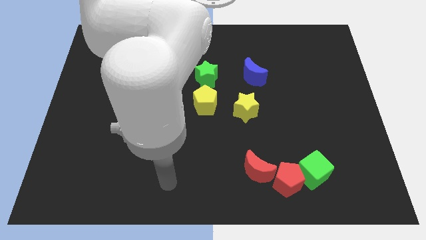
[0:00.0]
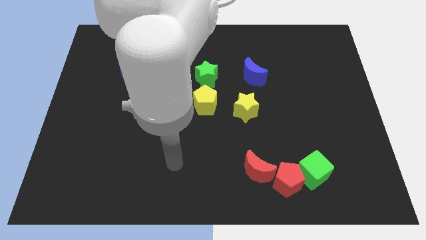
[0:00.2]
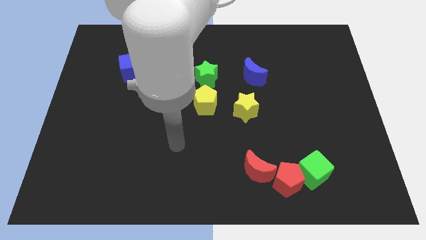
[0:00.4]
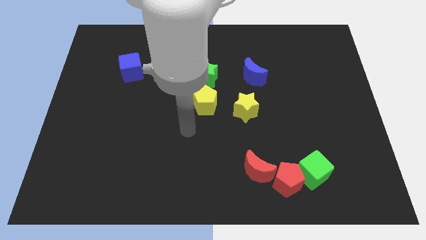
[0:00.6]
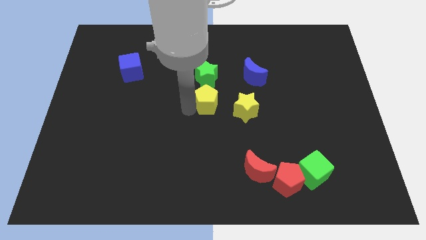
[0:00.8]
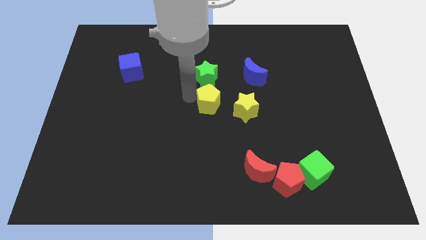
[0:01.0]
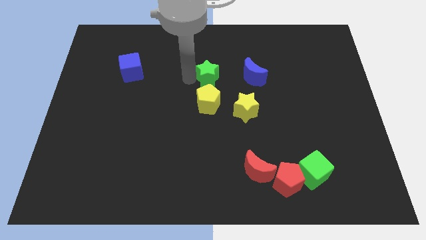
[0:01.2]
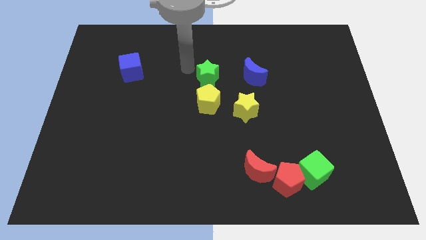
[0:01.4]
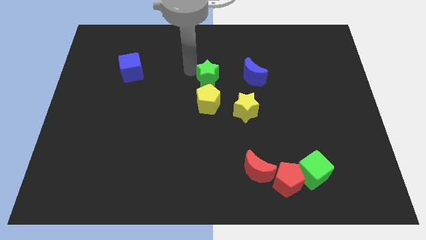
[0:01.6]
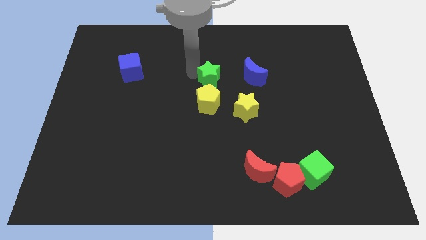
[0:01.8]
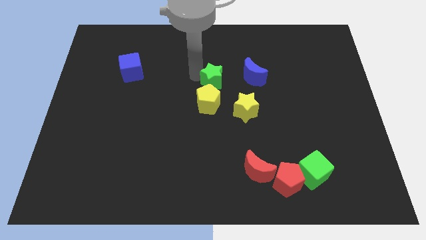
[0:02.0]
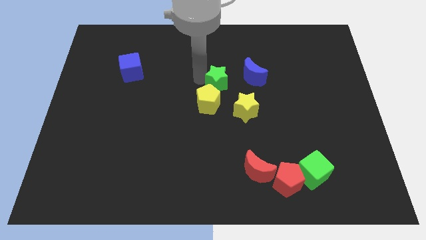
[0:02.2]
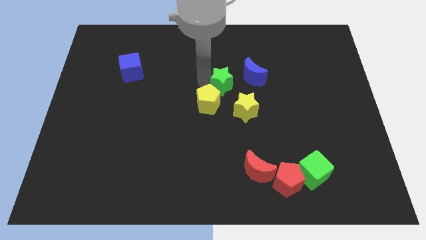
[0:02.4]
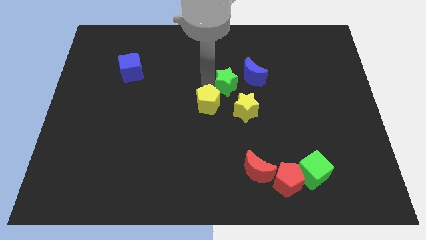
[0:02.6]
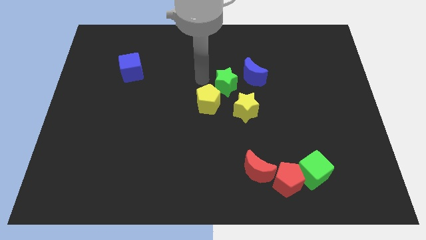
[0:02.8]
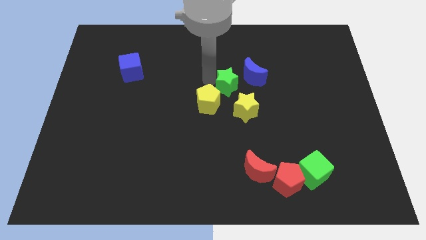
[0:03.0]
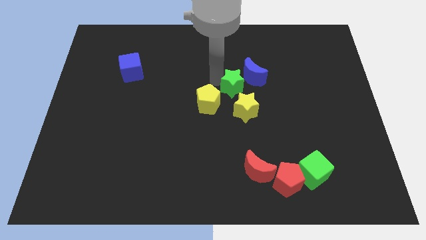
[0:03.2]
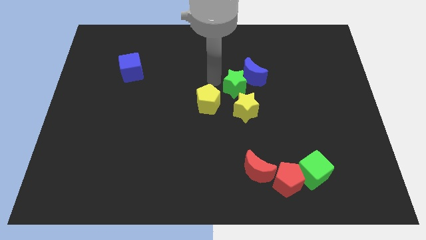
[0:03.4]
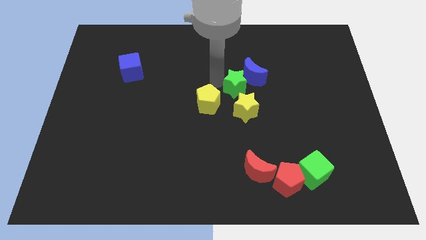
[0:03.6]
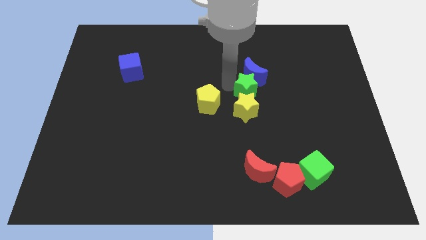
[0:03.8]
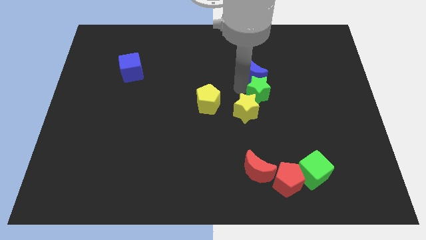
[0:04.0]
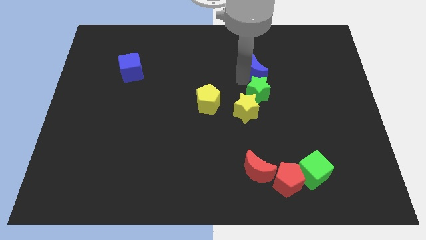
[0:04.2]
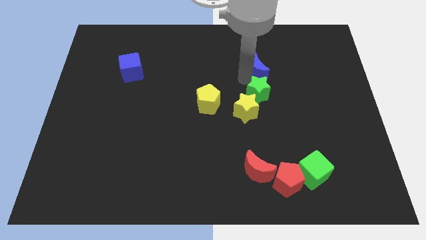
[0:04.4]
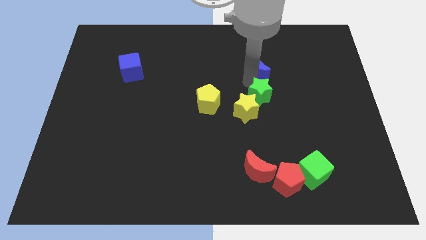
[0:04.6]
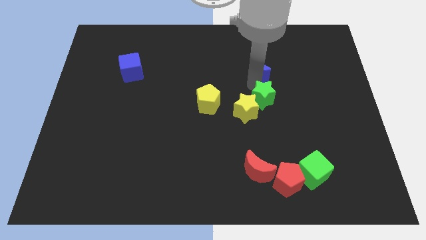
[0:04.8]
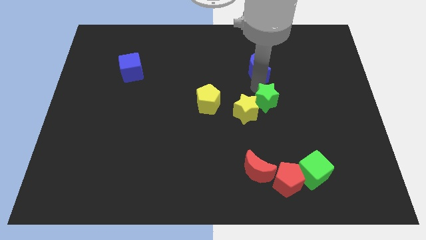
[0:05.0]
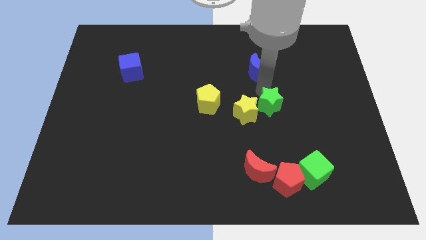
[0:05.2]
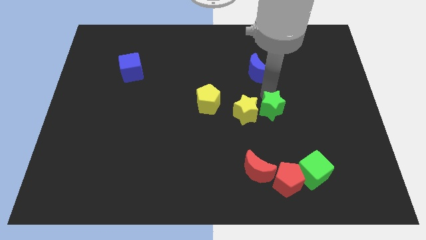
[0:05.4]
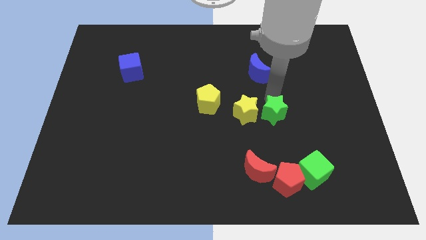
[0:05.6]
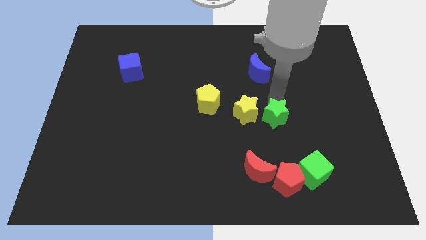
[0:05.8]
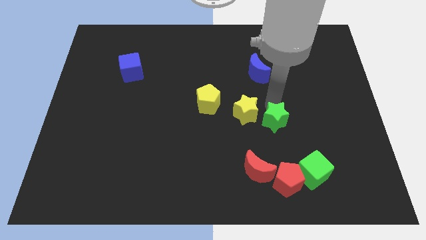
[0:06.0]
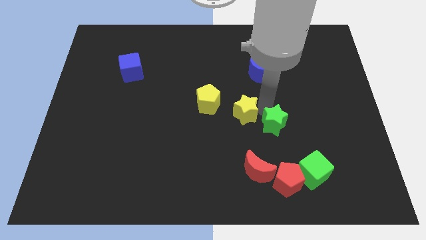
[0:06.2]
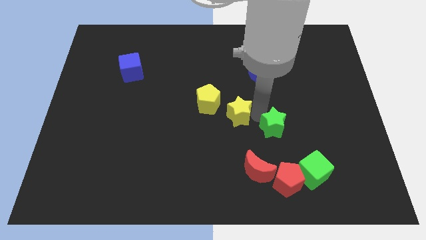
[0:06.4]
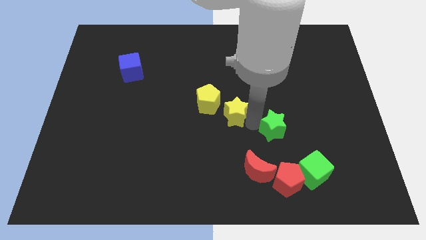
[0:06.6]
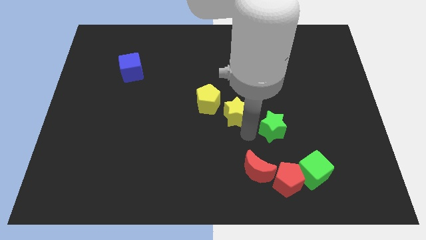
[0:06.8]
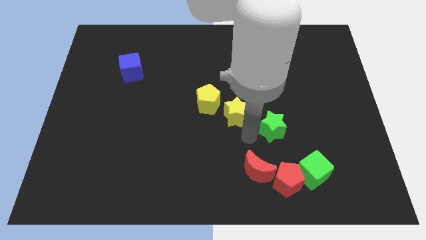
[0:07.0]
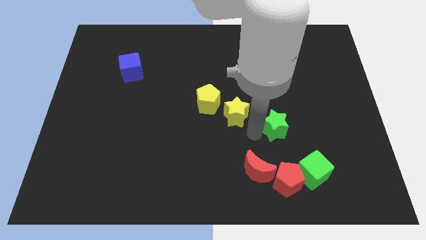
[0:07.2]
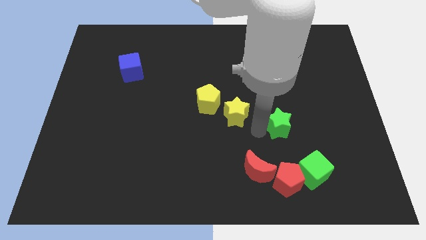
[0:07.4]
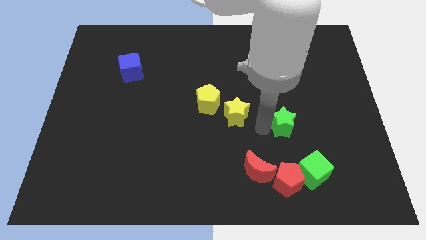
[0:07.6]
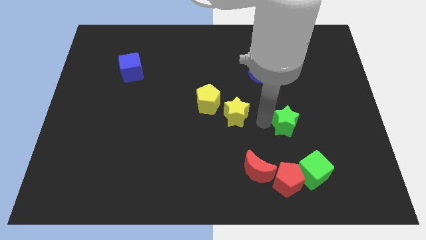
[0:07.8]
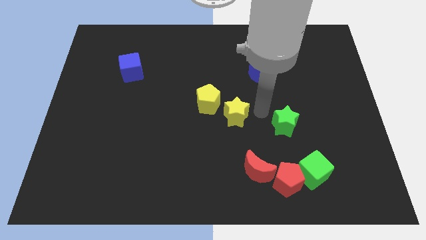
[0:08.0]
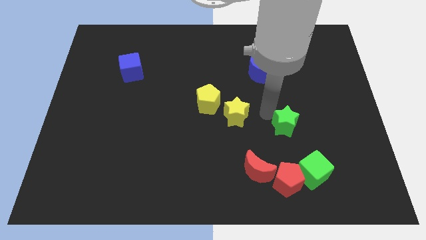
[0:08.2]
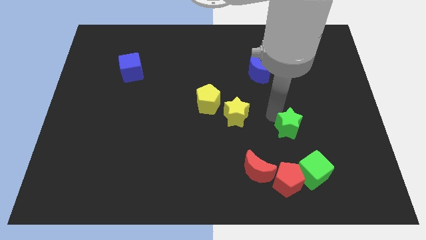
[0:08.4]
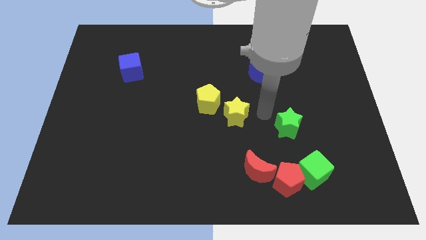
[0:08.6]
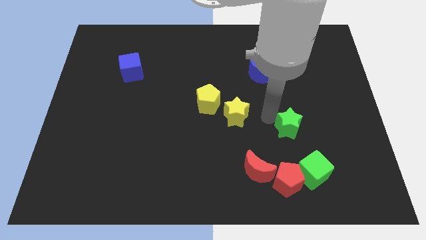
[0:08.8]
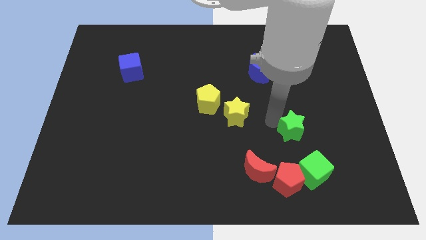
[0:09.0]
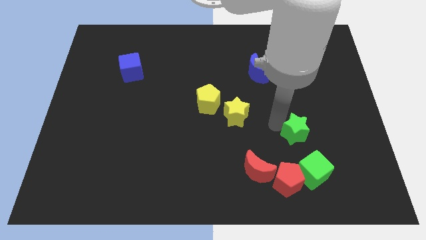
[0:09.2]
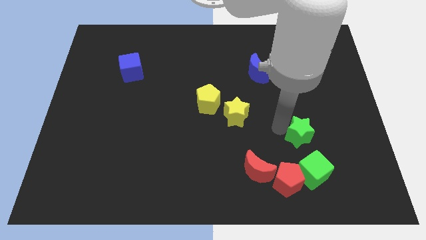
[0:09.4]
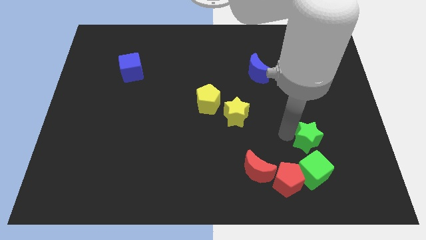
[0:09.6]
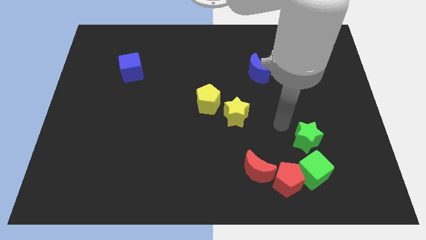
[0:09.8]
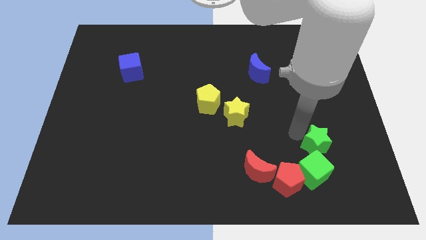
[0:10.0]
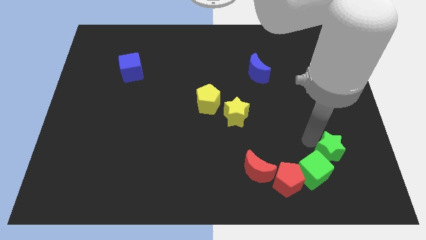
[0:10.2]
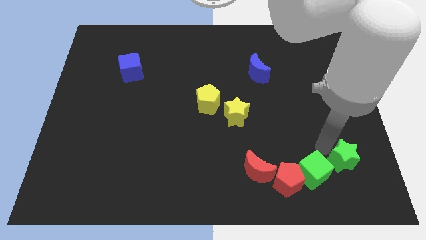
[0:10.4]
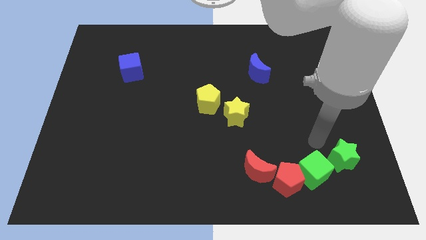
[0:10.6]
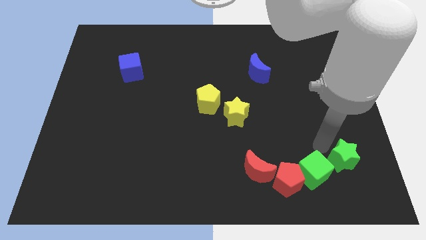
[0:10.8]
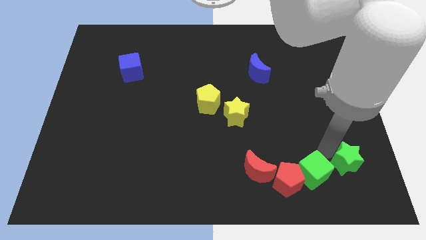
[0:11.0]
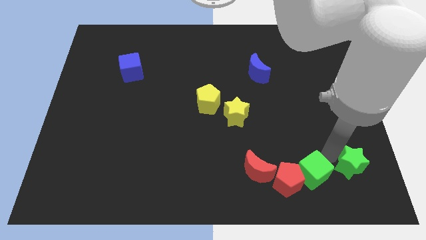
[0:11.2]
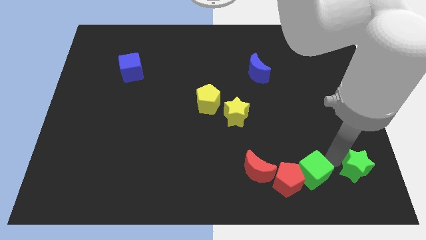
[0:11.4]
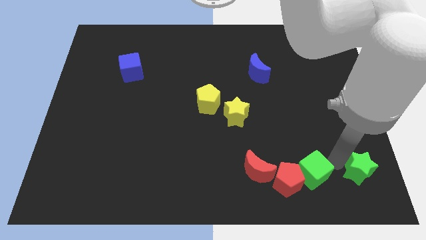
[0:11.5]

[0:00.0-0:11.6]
move the green star to the lower right corner
